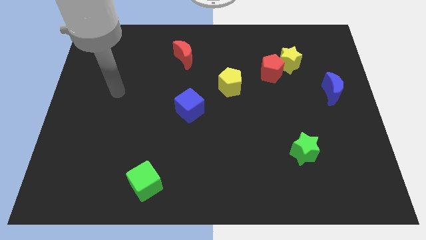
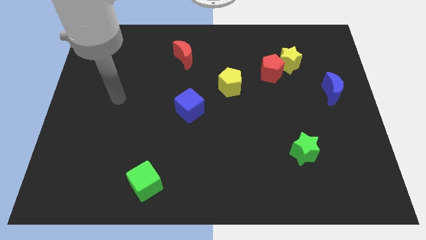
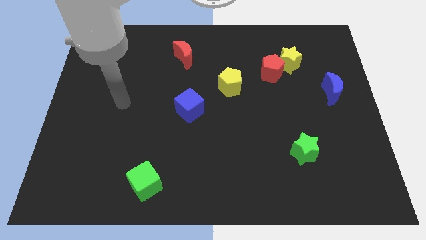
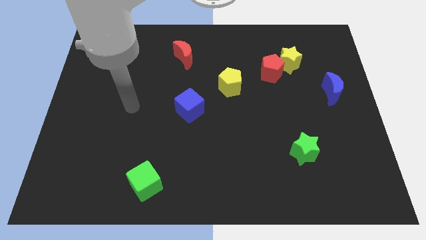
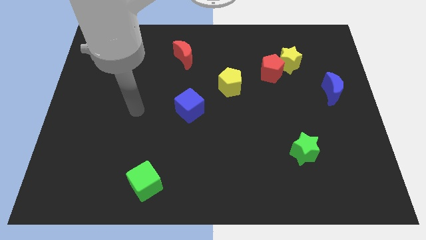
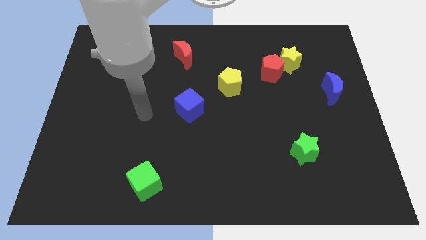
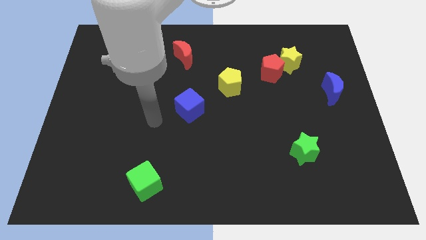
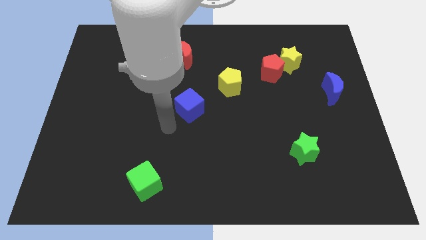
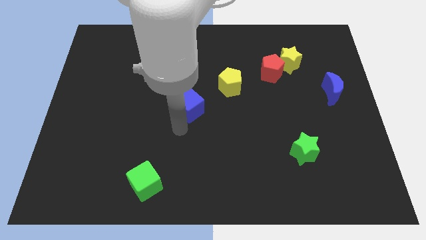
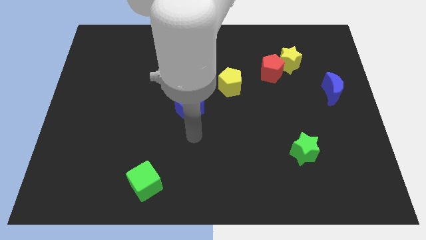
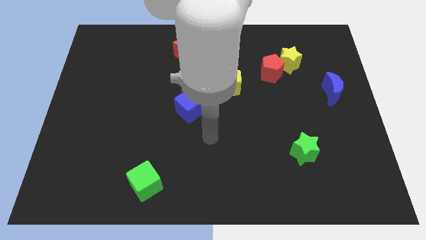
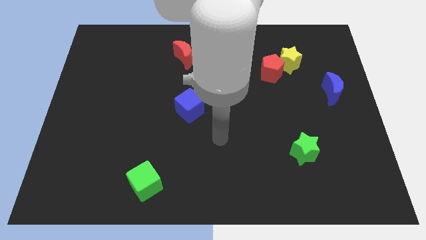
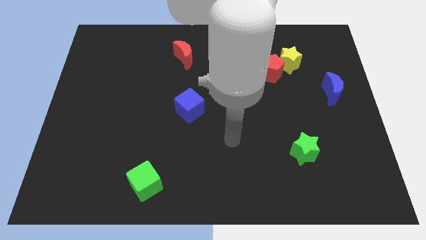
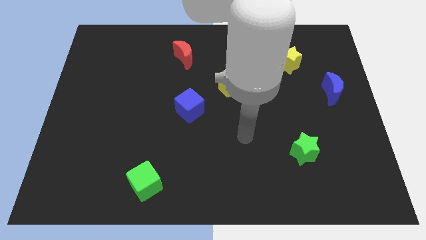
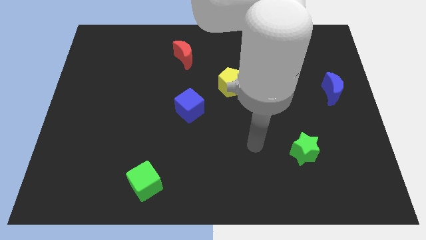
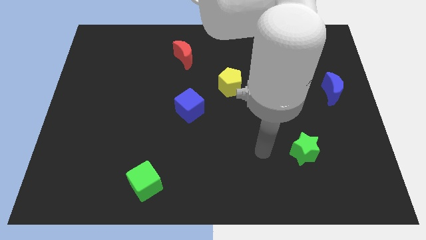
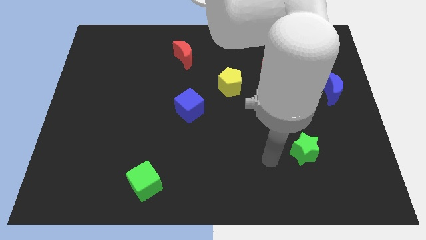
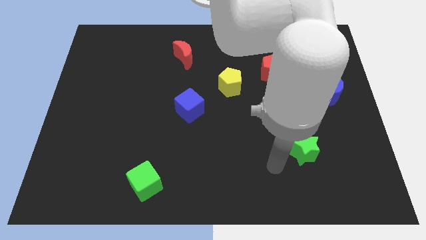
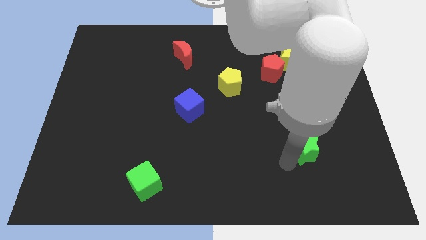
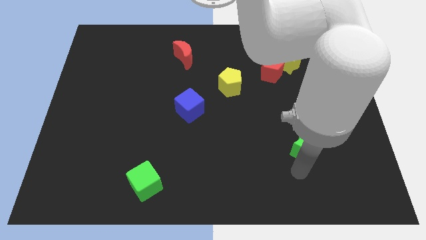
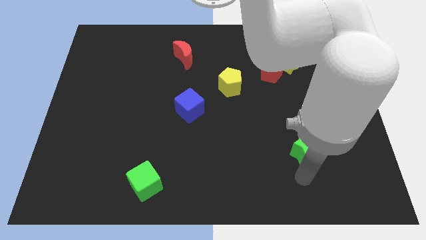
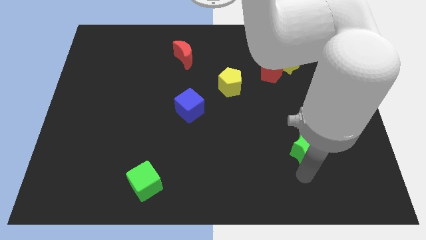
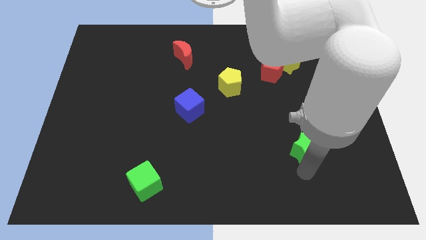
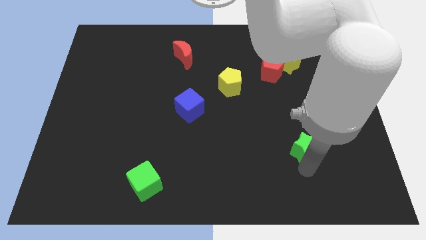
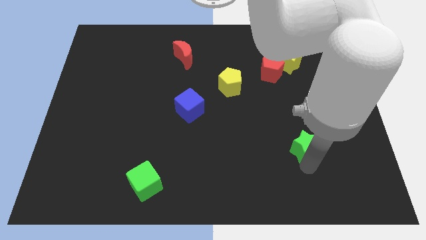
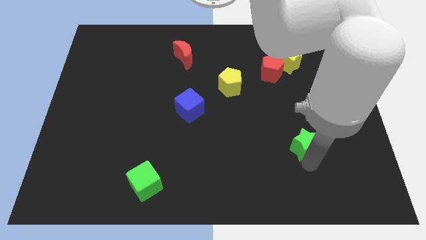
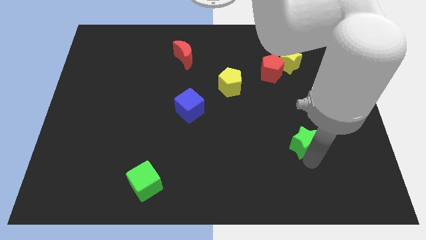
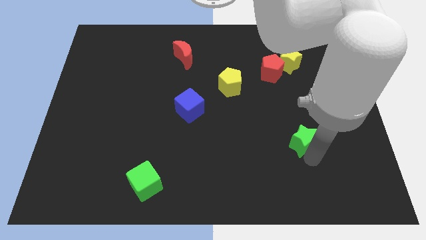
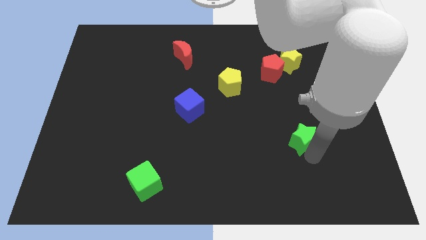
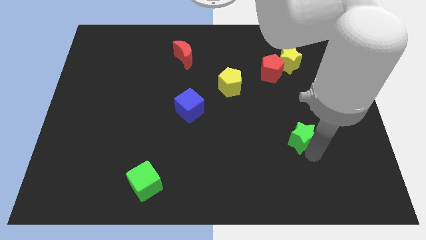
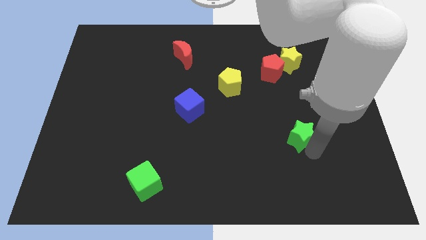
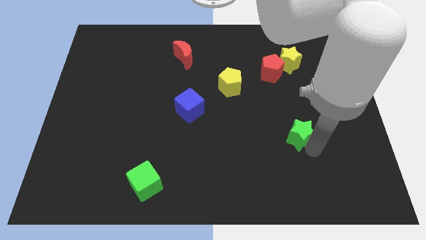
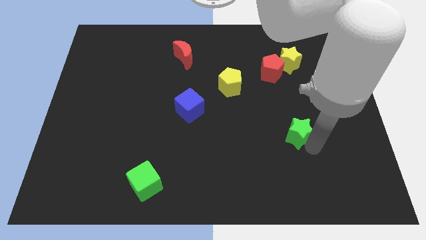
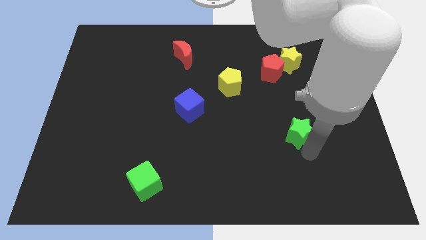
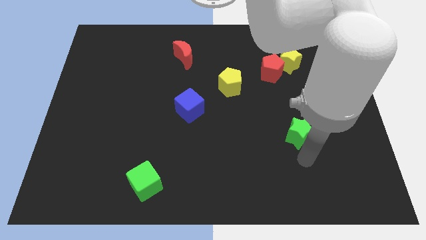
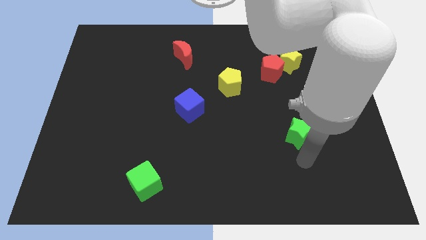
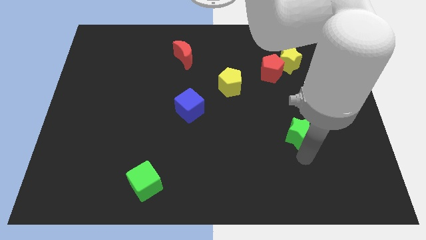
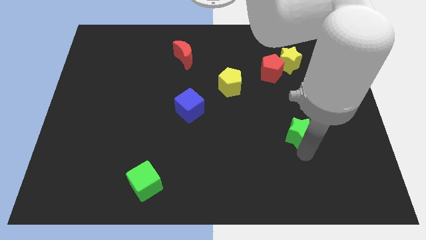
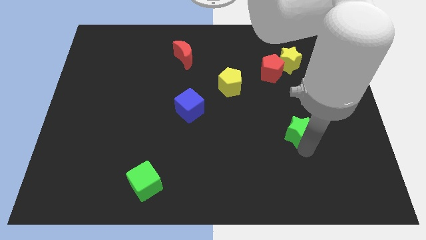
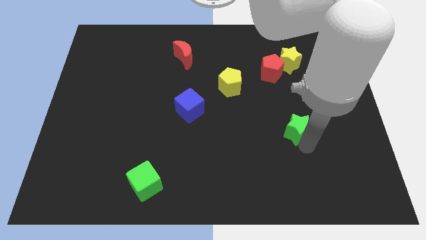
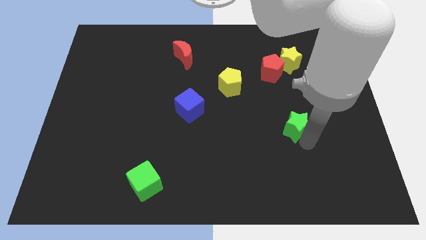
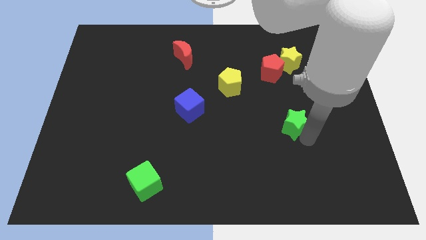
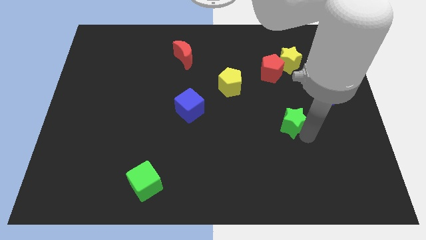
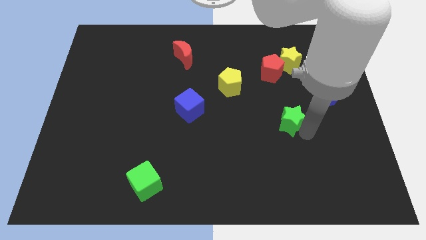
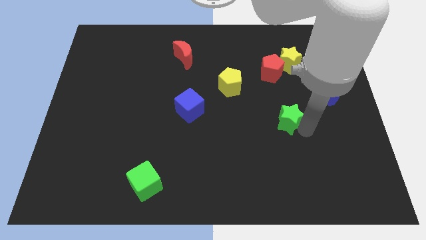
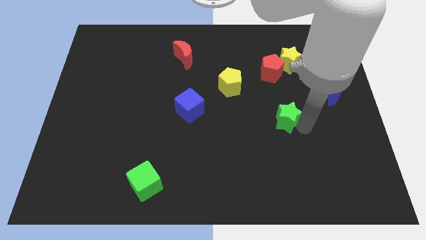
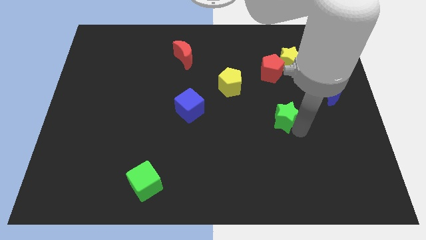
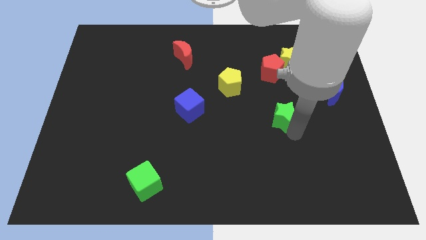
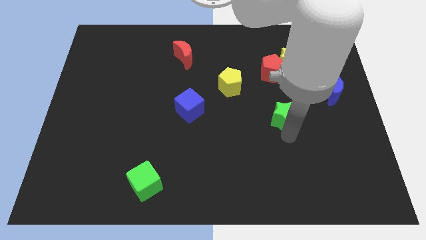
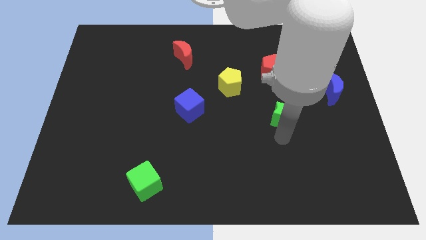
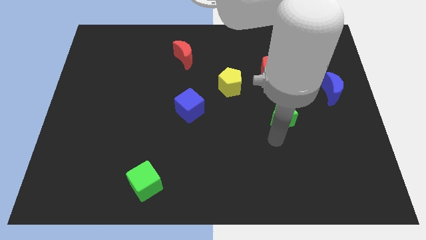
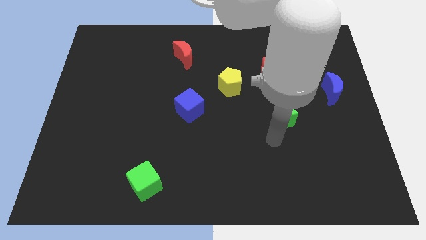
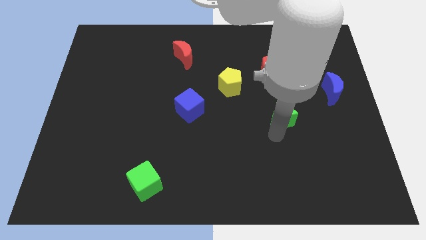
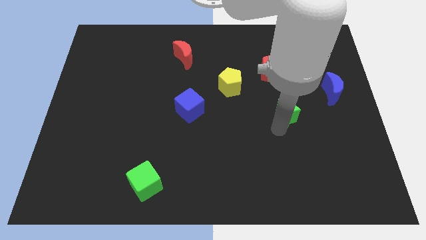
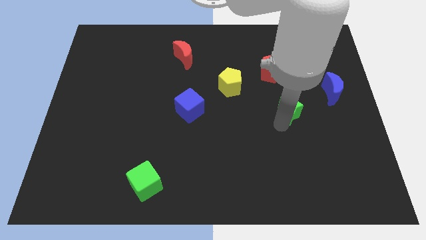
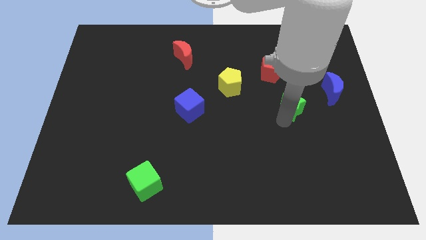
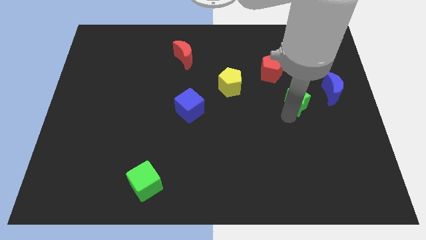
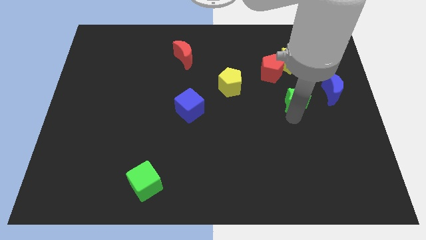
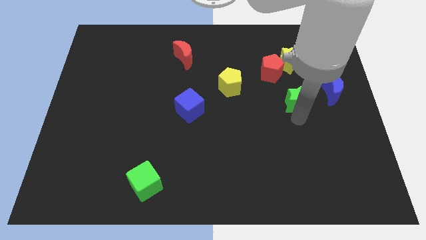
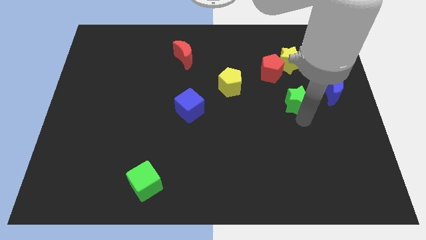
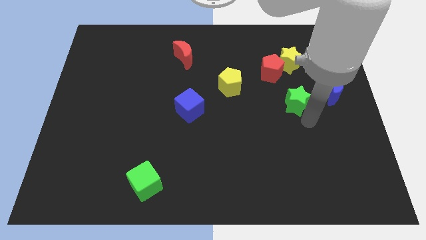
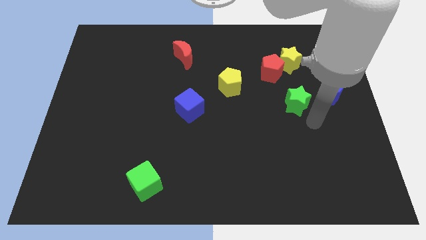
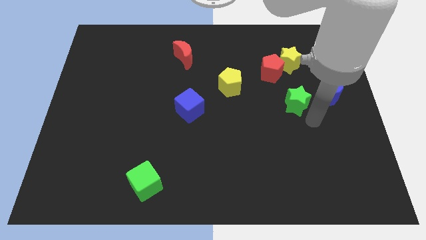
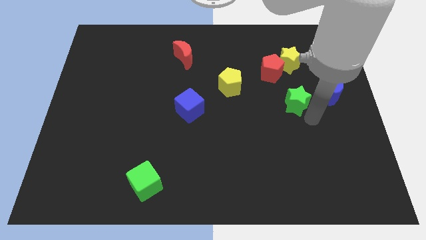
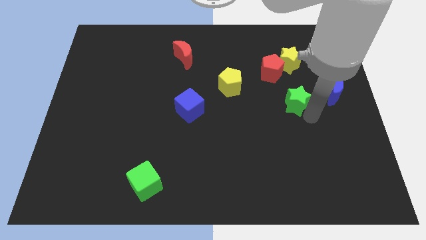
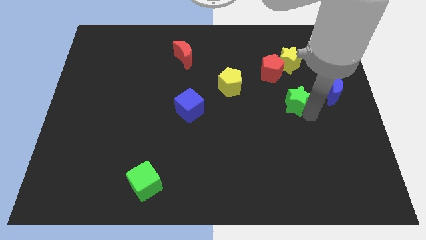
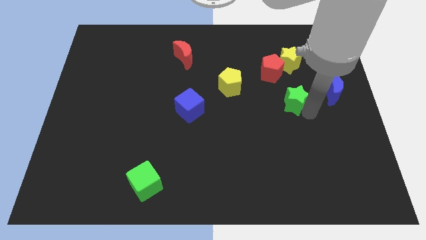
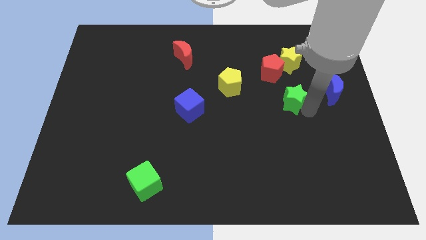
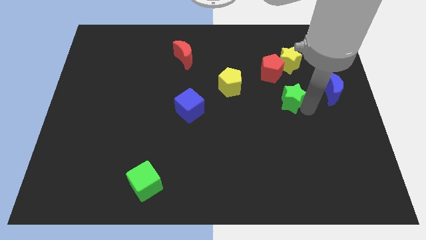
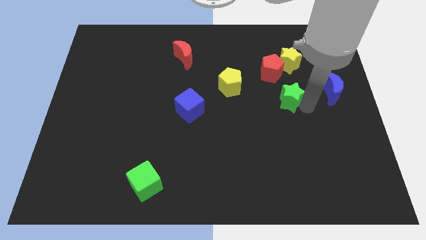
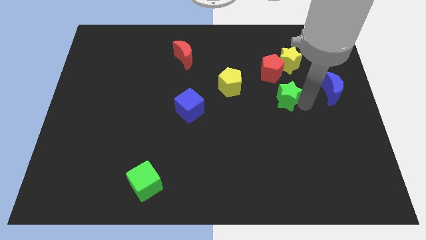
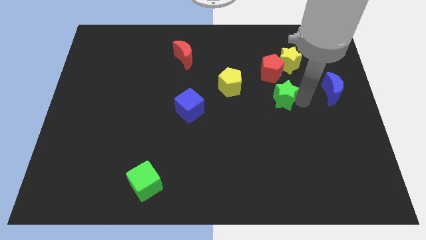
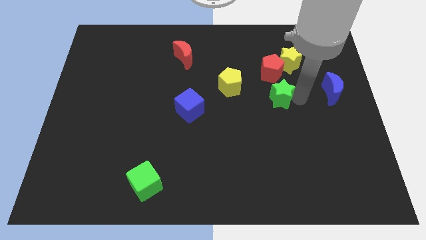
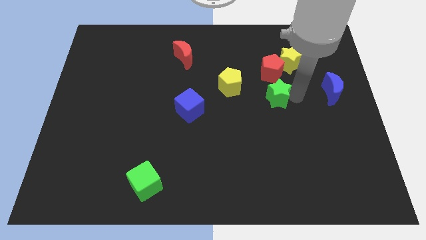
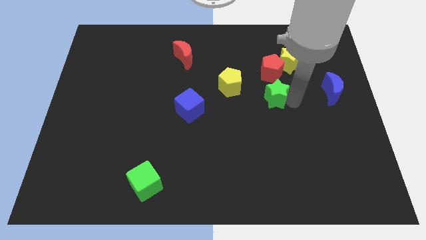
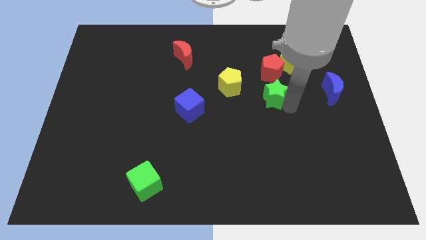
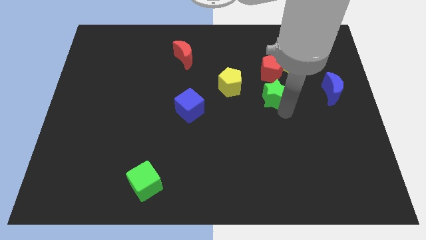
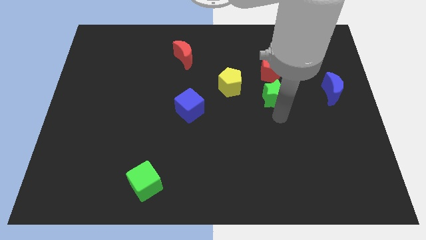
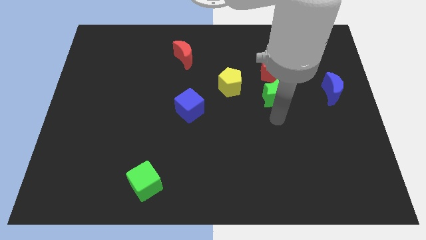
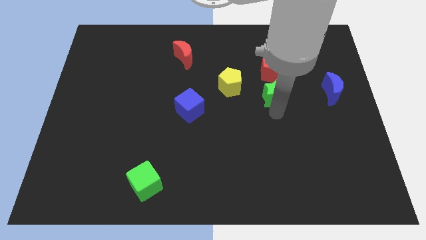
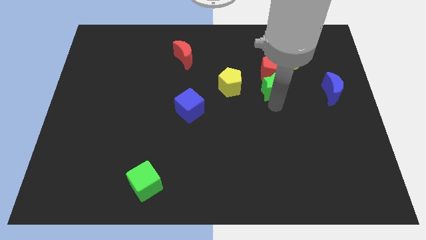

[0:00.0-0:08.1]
slide the green star next to the red pentagon
